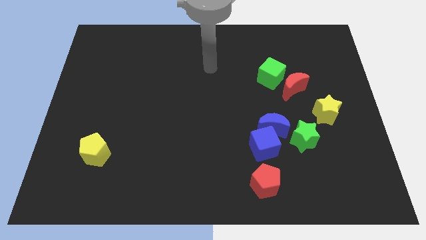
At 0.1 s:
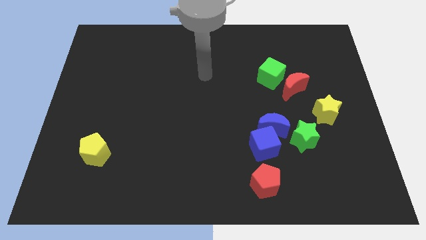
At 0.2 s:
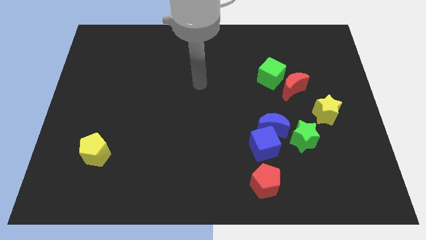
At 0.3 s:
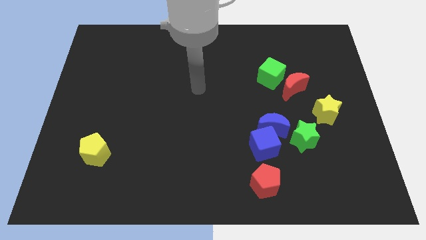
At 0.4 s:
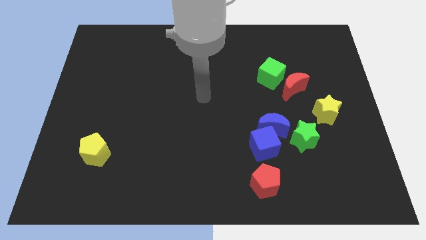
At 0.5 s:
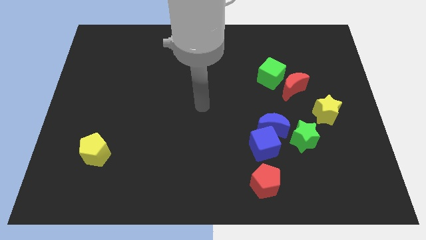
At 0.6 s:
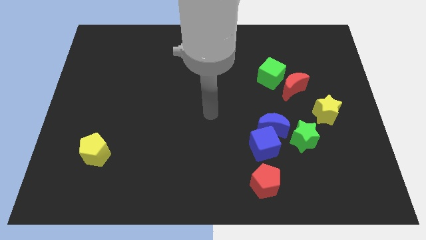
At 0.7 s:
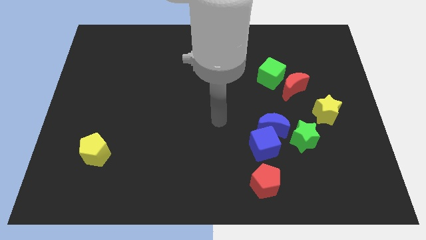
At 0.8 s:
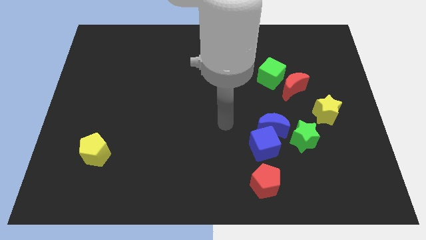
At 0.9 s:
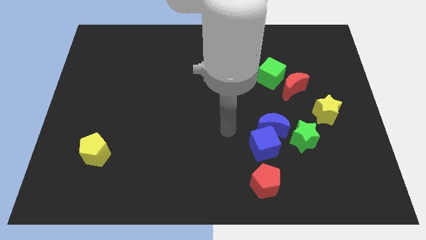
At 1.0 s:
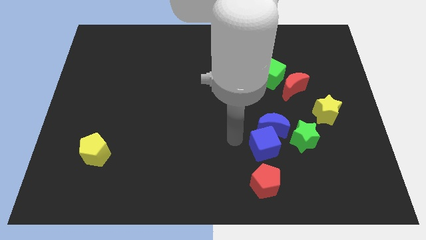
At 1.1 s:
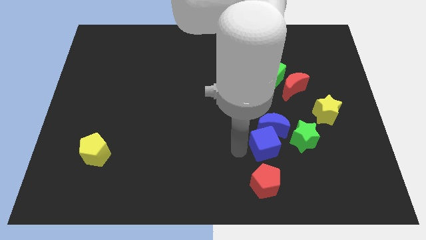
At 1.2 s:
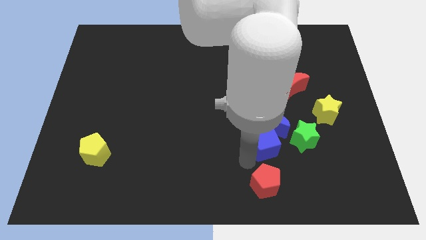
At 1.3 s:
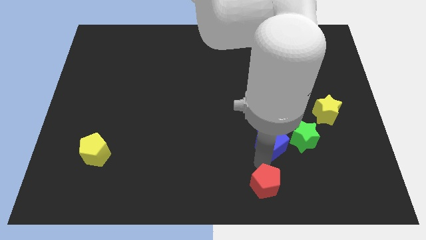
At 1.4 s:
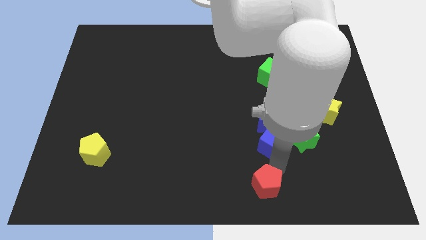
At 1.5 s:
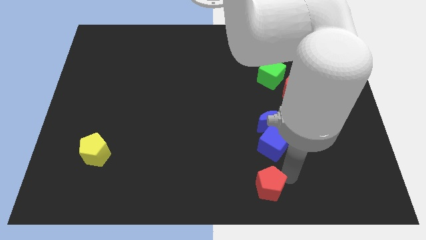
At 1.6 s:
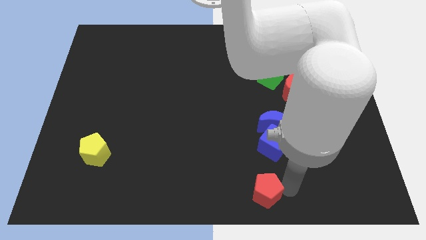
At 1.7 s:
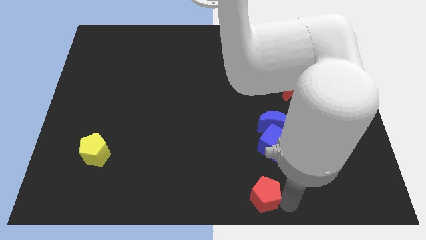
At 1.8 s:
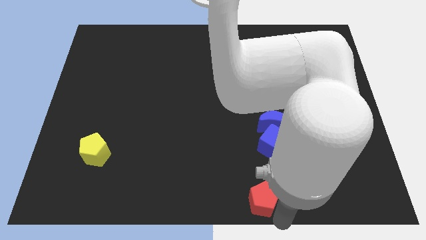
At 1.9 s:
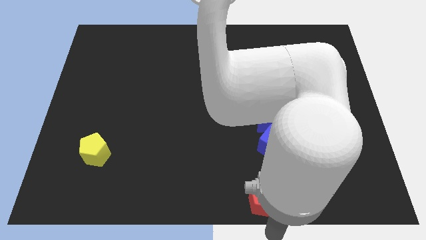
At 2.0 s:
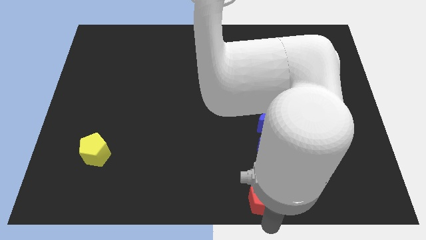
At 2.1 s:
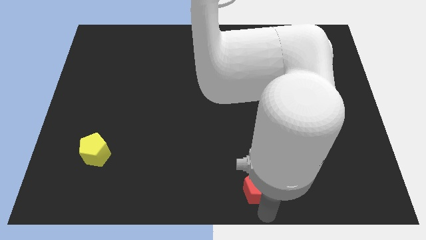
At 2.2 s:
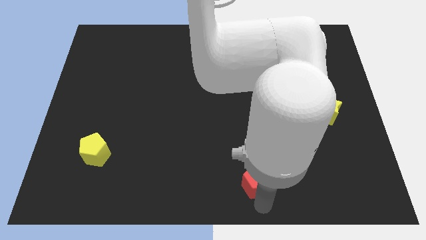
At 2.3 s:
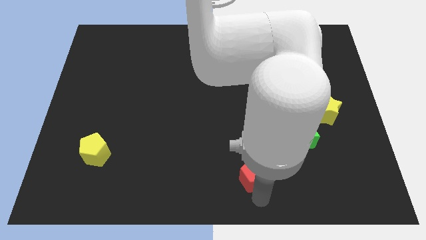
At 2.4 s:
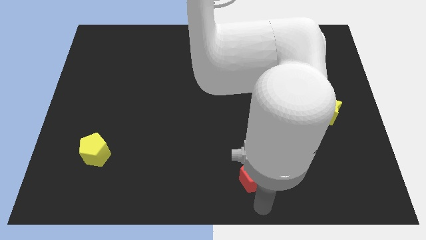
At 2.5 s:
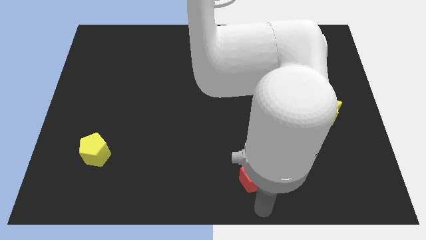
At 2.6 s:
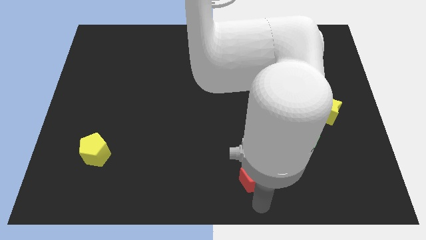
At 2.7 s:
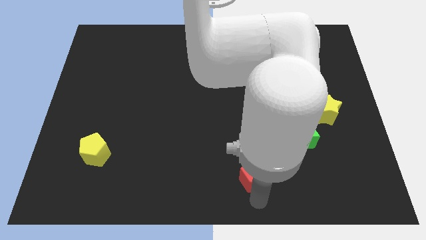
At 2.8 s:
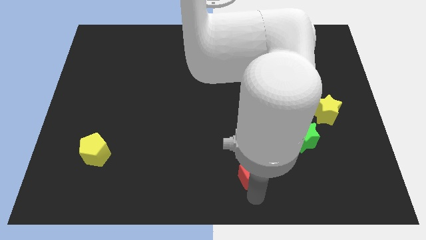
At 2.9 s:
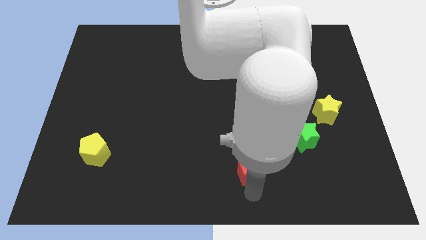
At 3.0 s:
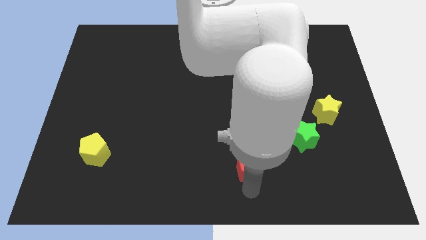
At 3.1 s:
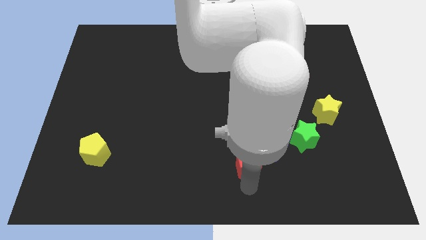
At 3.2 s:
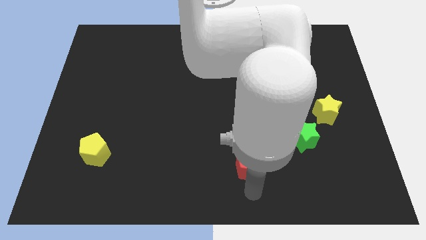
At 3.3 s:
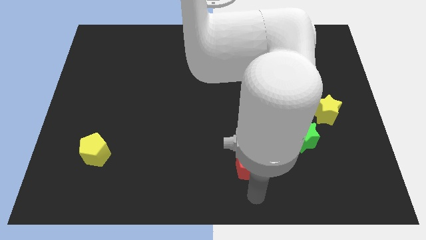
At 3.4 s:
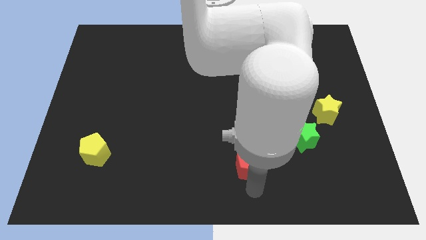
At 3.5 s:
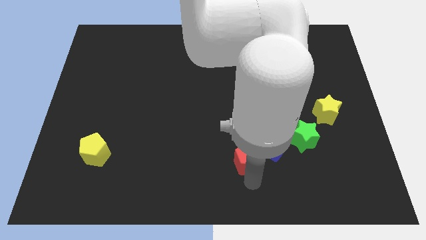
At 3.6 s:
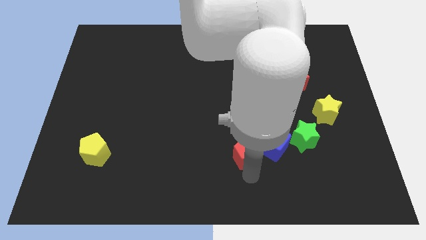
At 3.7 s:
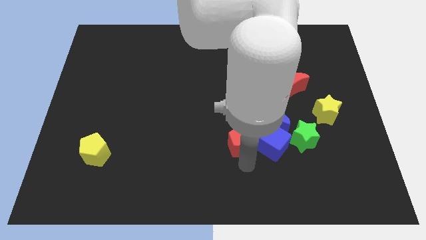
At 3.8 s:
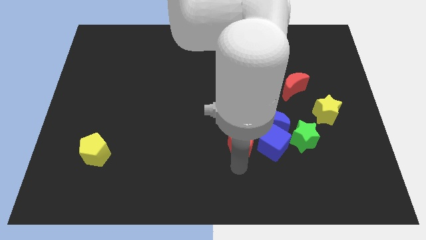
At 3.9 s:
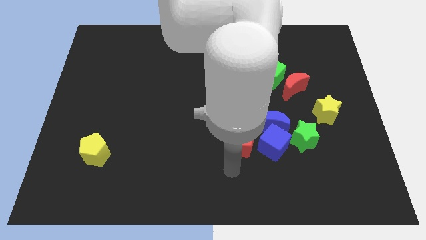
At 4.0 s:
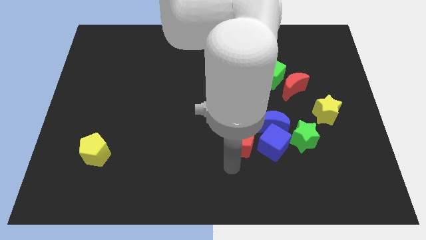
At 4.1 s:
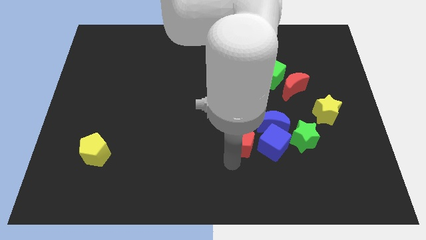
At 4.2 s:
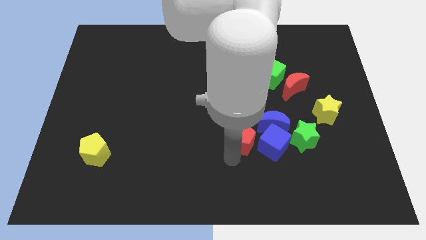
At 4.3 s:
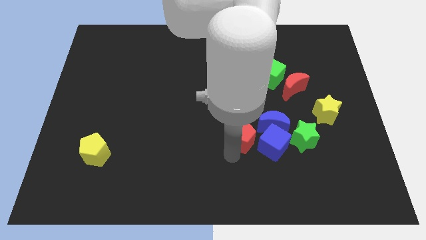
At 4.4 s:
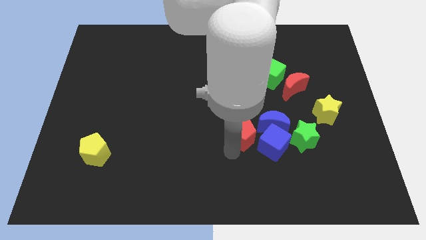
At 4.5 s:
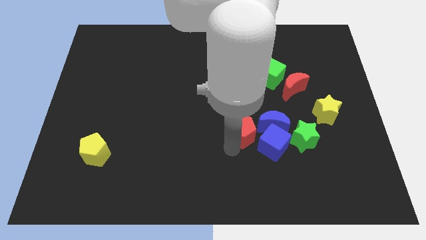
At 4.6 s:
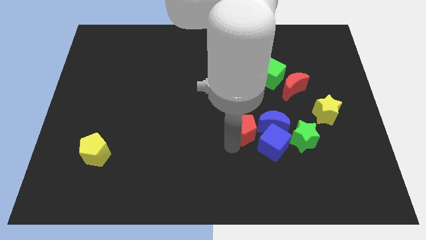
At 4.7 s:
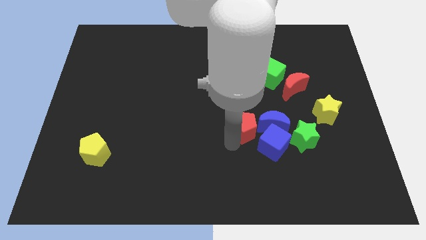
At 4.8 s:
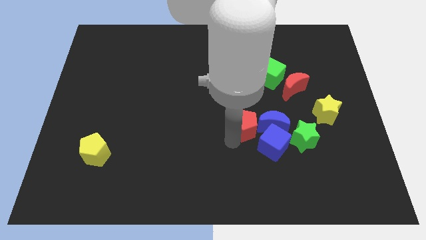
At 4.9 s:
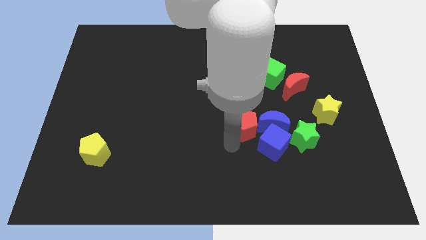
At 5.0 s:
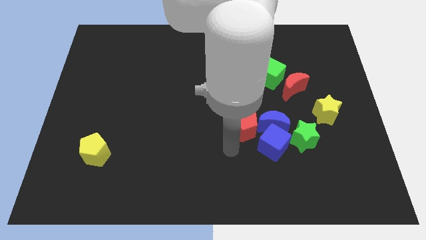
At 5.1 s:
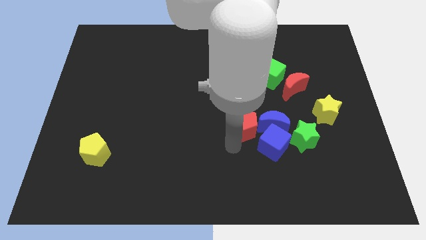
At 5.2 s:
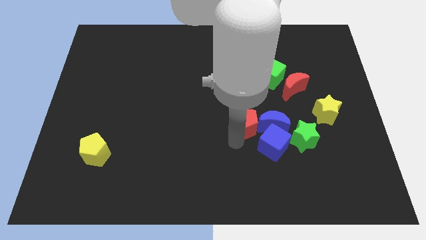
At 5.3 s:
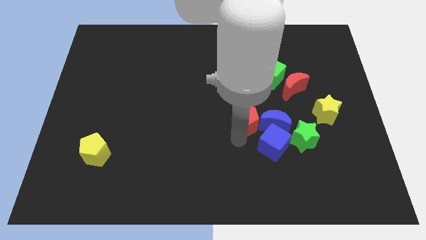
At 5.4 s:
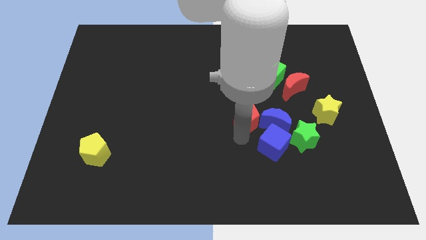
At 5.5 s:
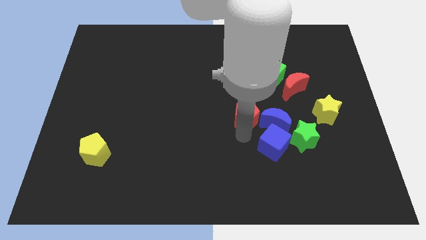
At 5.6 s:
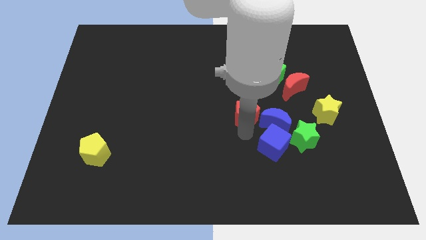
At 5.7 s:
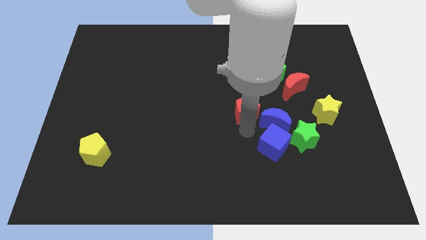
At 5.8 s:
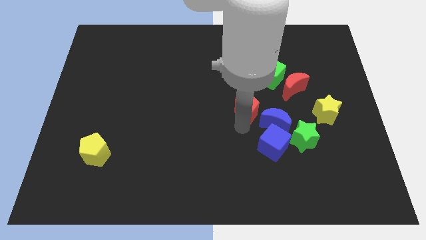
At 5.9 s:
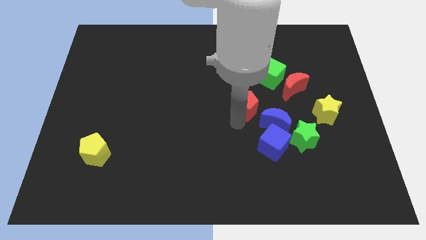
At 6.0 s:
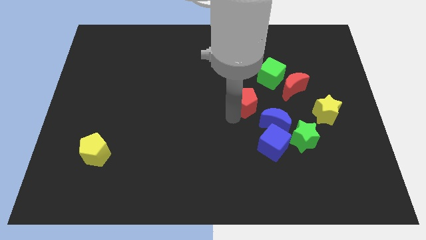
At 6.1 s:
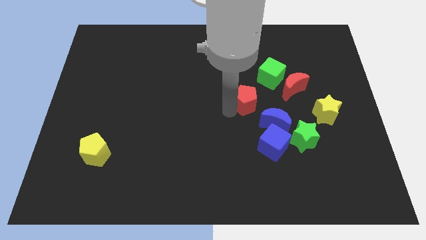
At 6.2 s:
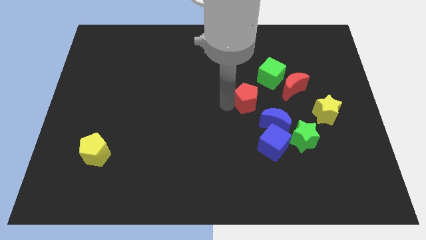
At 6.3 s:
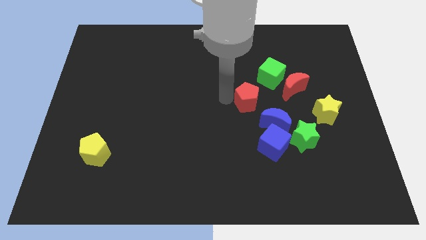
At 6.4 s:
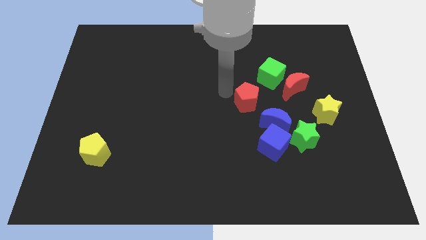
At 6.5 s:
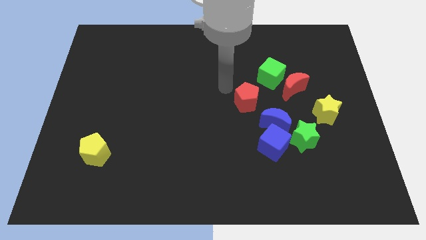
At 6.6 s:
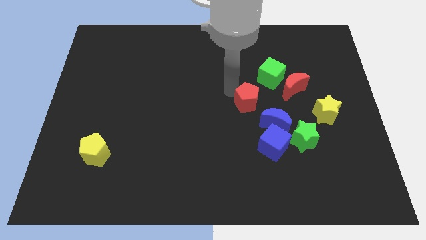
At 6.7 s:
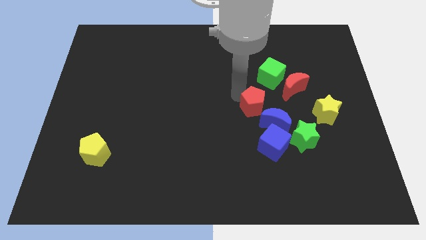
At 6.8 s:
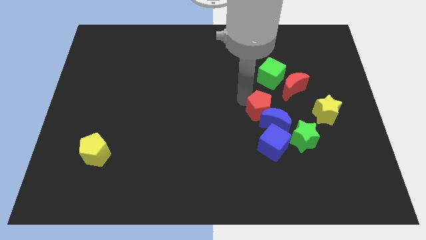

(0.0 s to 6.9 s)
slide the red pentagon to the top left side of the green star
